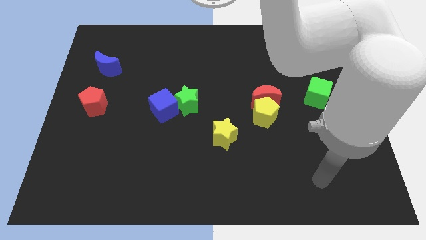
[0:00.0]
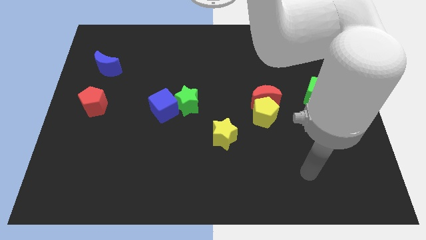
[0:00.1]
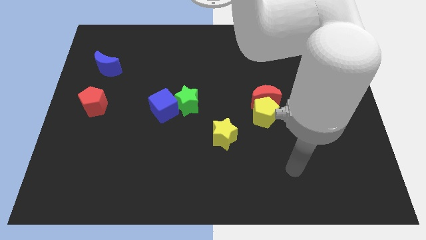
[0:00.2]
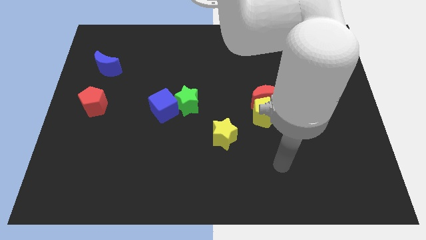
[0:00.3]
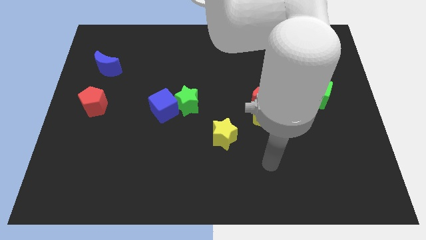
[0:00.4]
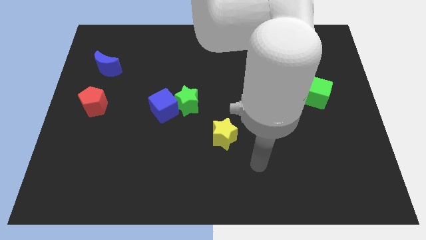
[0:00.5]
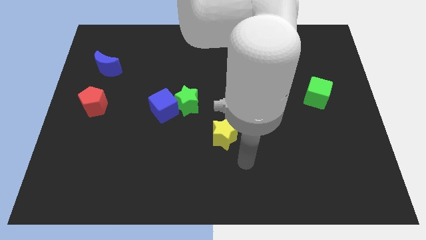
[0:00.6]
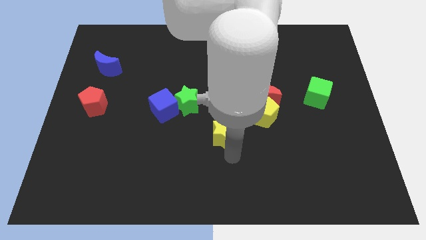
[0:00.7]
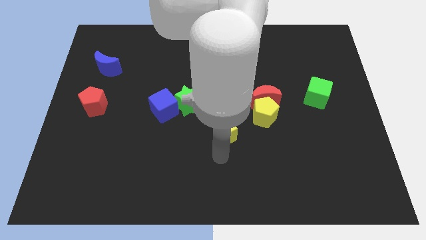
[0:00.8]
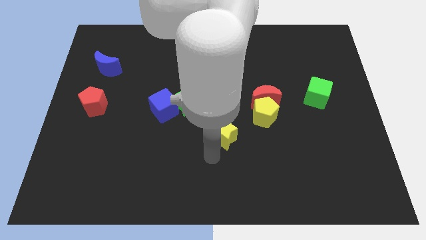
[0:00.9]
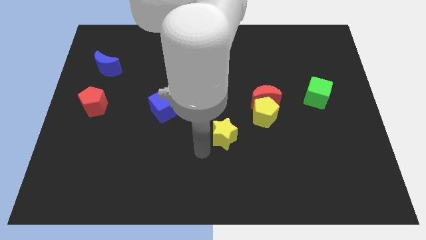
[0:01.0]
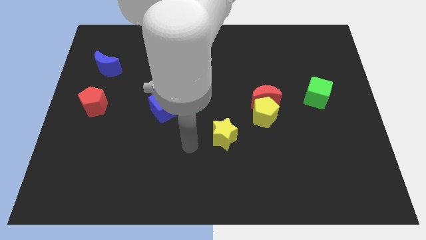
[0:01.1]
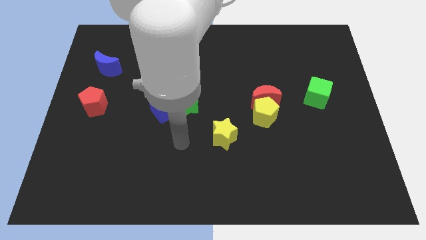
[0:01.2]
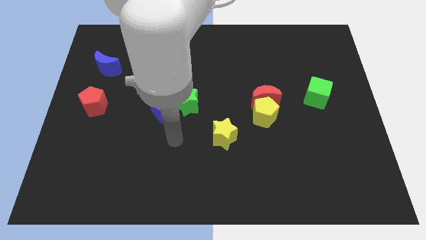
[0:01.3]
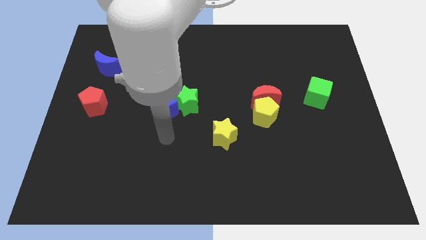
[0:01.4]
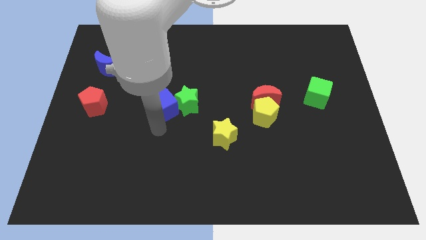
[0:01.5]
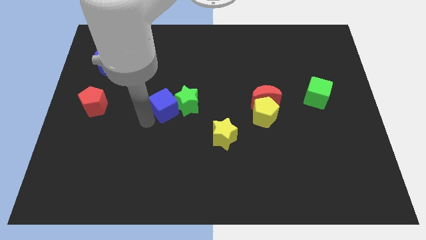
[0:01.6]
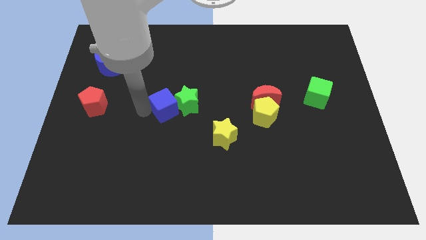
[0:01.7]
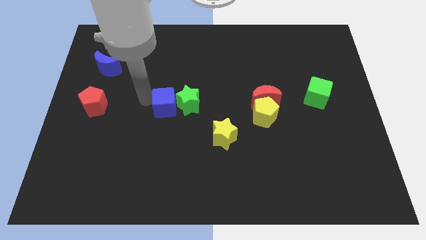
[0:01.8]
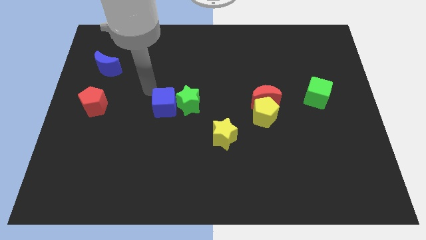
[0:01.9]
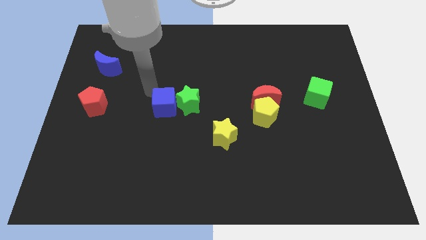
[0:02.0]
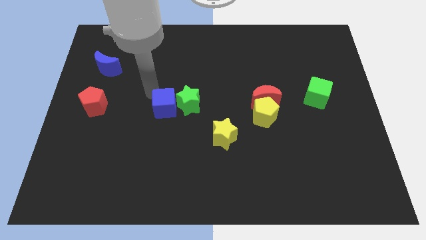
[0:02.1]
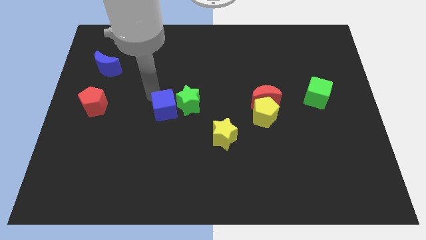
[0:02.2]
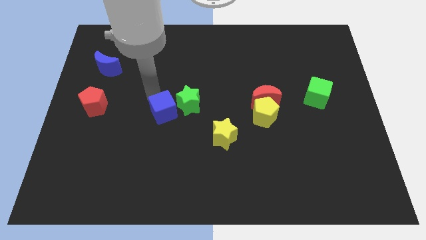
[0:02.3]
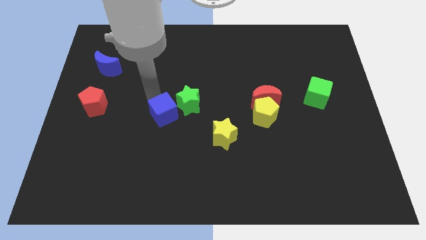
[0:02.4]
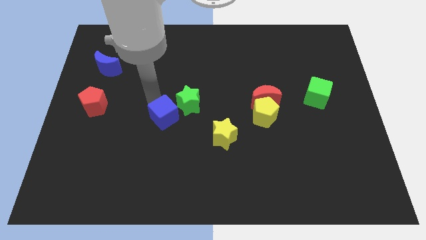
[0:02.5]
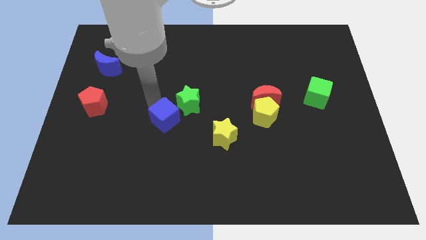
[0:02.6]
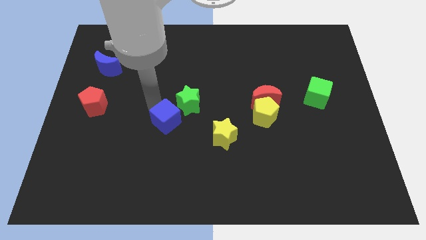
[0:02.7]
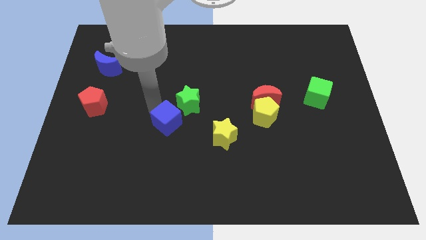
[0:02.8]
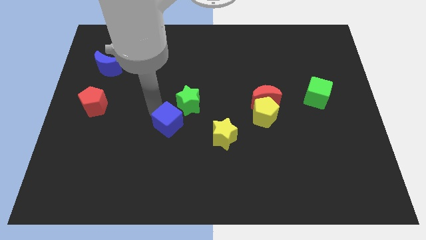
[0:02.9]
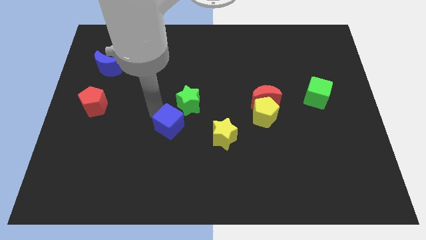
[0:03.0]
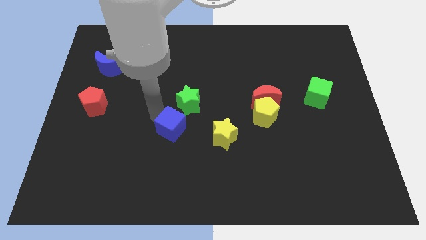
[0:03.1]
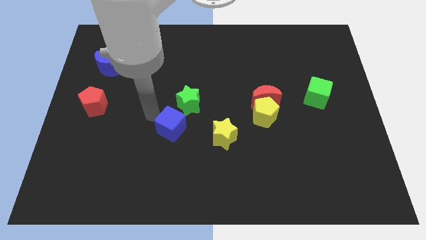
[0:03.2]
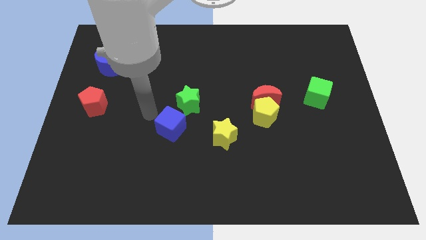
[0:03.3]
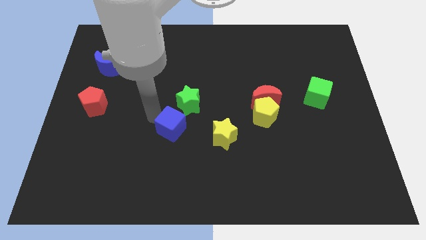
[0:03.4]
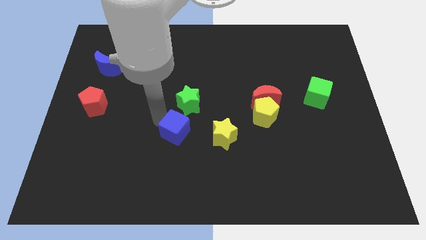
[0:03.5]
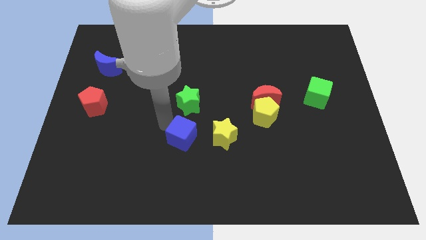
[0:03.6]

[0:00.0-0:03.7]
slide the blue cube downwards and right diagonally a little bit

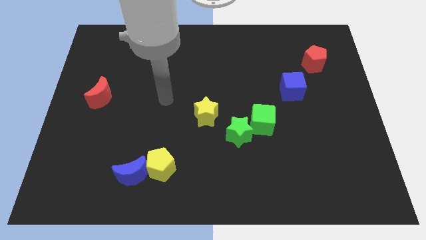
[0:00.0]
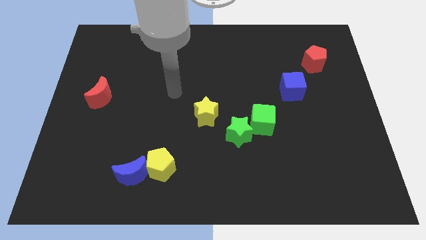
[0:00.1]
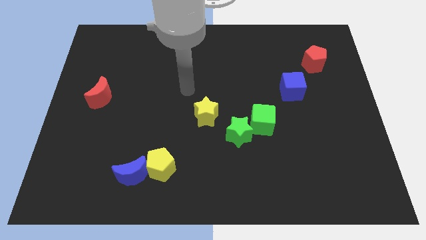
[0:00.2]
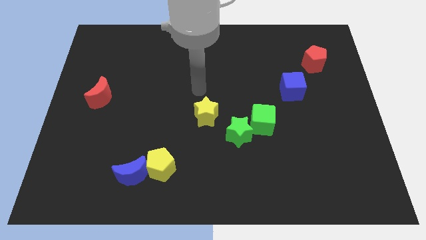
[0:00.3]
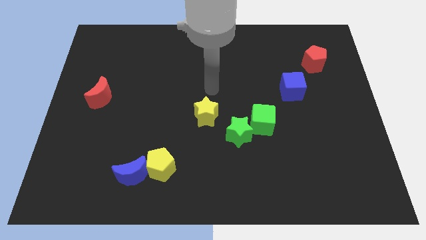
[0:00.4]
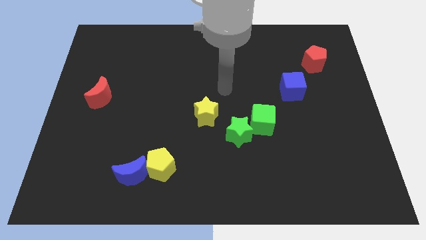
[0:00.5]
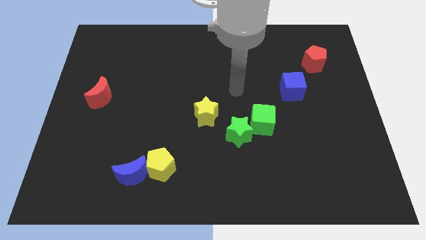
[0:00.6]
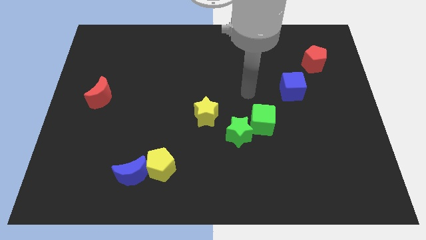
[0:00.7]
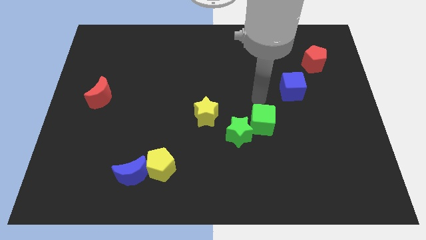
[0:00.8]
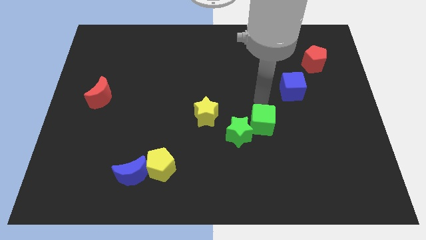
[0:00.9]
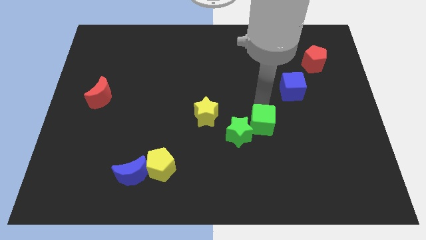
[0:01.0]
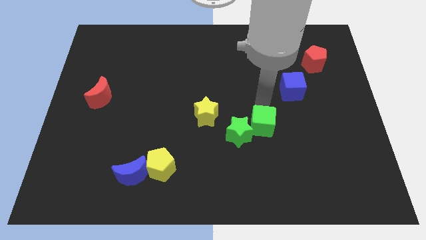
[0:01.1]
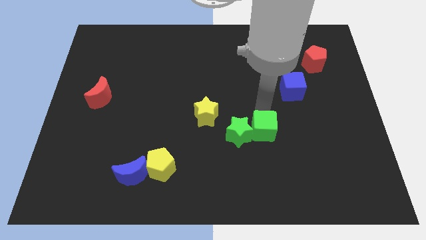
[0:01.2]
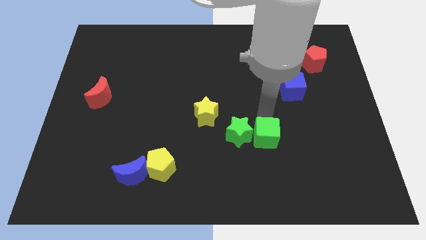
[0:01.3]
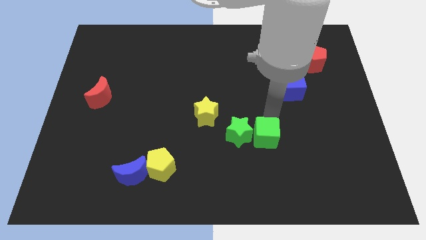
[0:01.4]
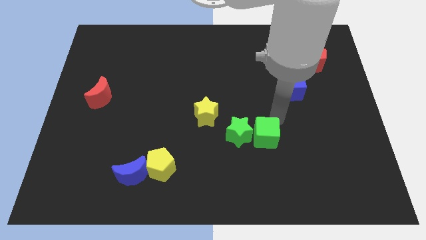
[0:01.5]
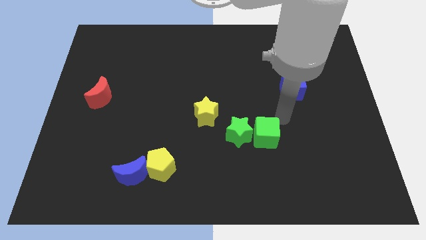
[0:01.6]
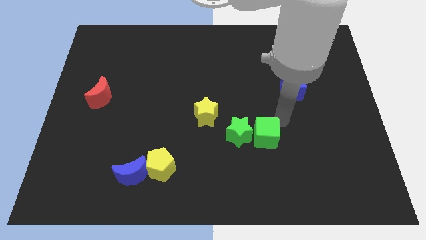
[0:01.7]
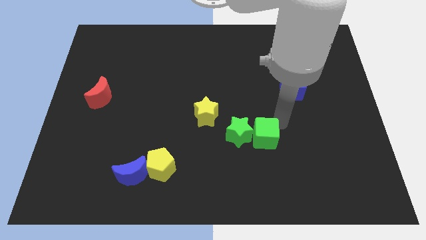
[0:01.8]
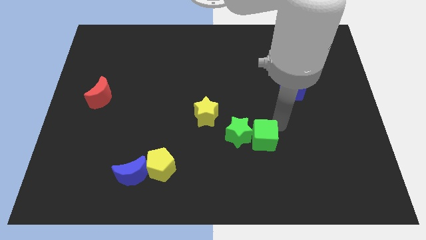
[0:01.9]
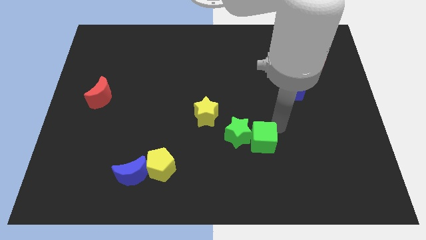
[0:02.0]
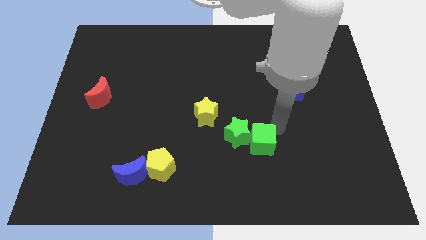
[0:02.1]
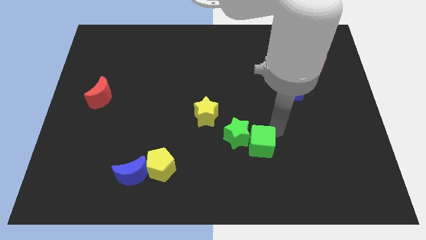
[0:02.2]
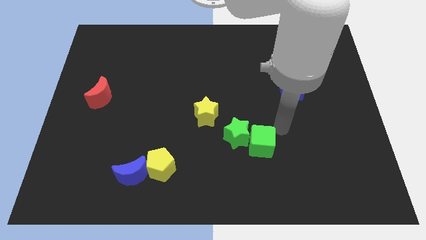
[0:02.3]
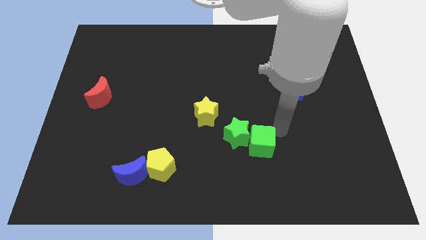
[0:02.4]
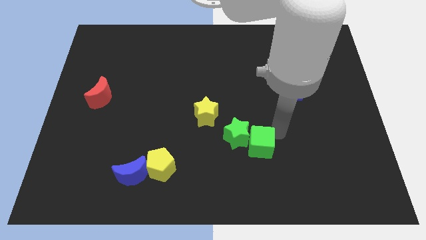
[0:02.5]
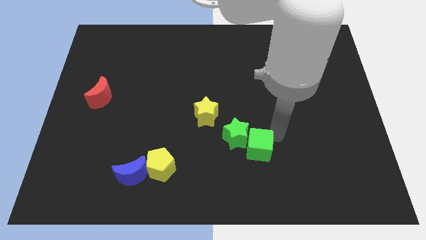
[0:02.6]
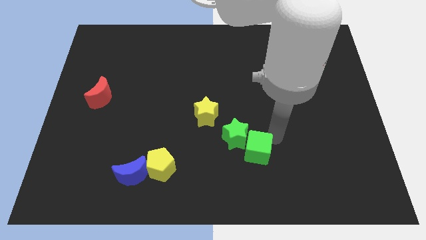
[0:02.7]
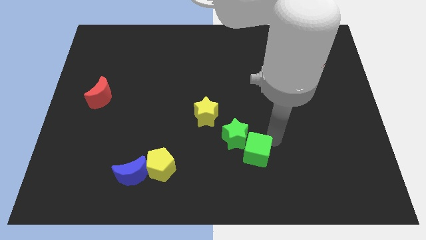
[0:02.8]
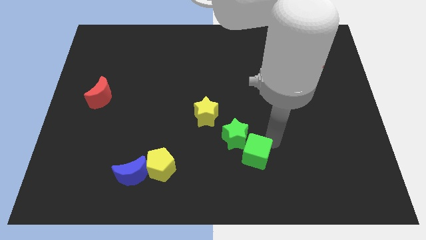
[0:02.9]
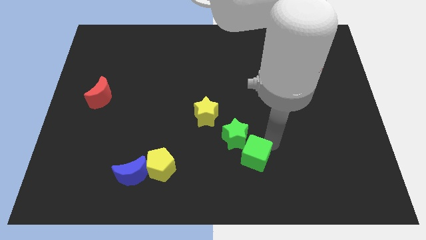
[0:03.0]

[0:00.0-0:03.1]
push the green cube a little bit down and then left

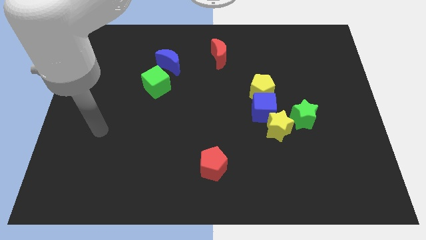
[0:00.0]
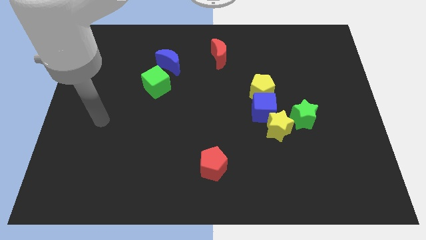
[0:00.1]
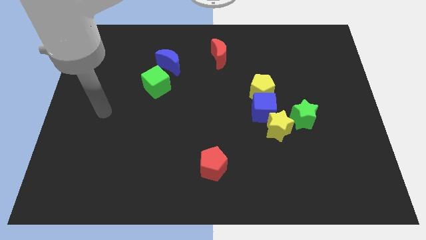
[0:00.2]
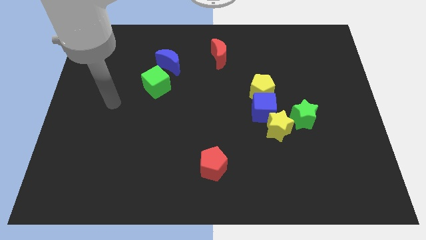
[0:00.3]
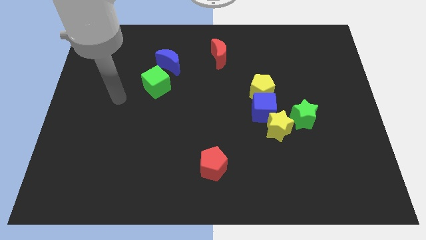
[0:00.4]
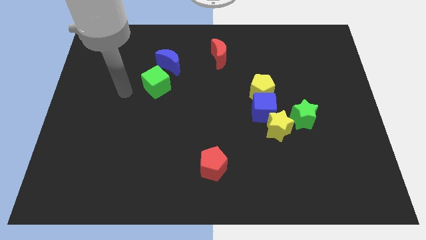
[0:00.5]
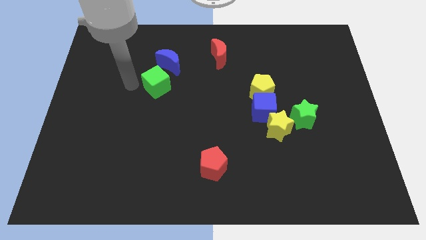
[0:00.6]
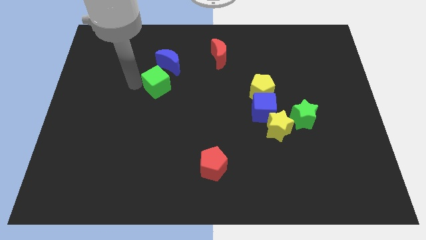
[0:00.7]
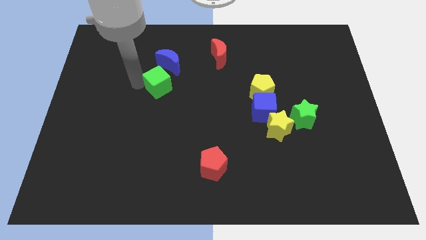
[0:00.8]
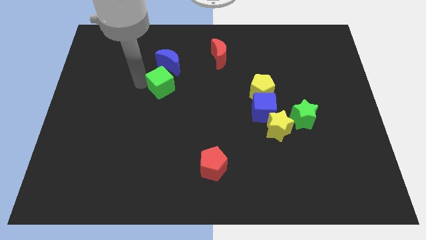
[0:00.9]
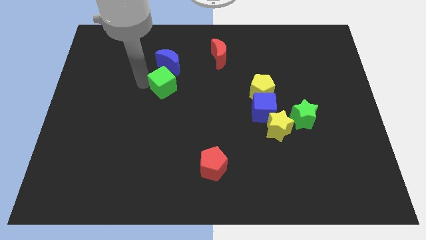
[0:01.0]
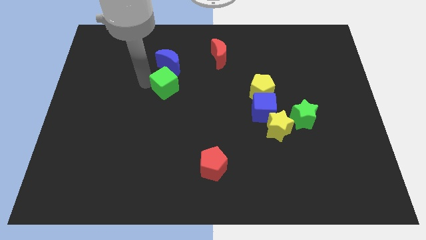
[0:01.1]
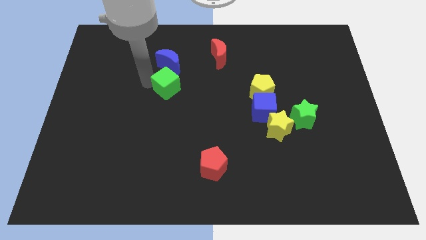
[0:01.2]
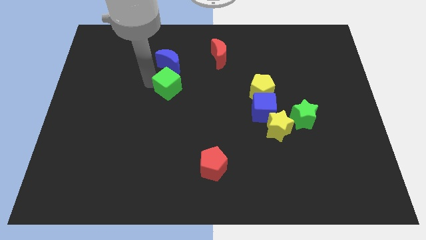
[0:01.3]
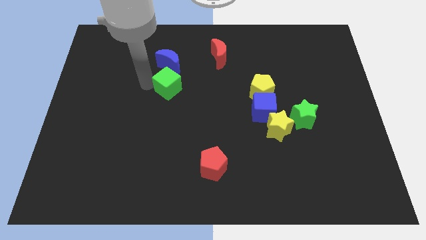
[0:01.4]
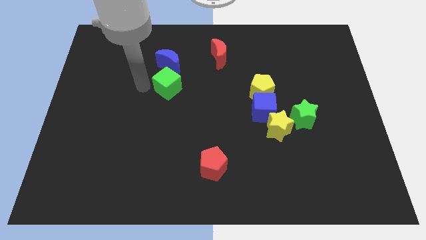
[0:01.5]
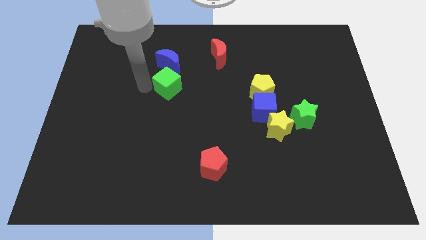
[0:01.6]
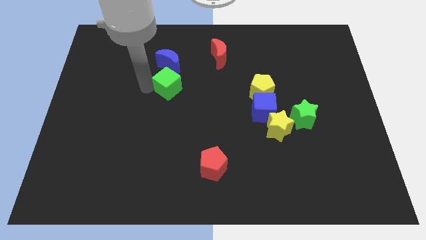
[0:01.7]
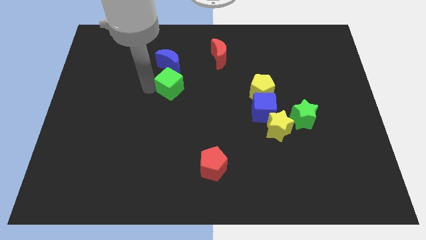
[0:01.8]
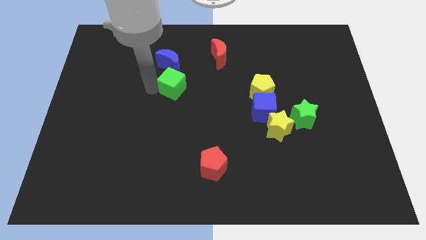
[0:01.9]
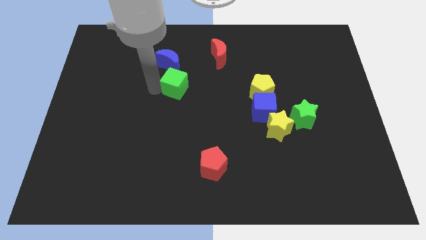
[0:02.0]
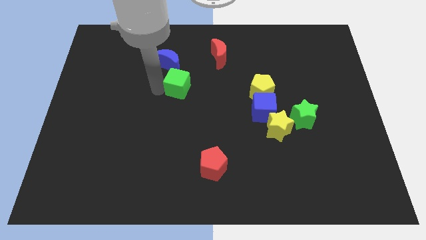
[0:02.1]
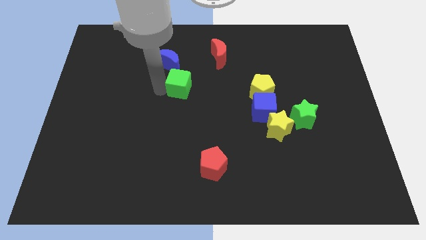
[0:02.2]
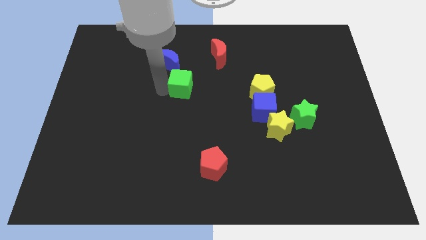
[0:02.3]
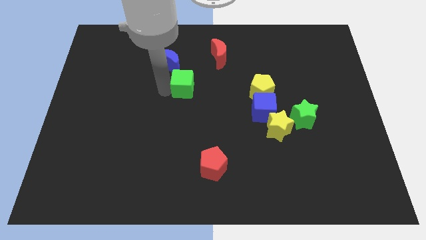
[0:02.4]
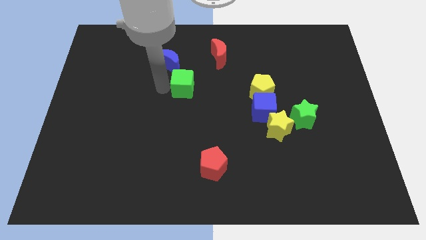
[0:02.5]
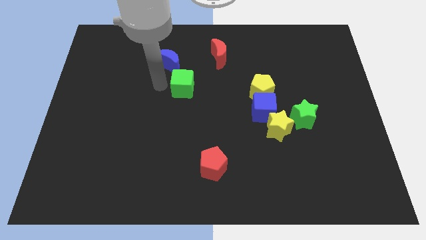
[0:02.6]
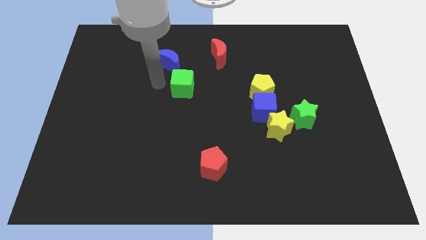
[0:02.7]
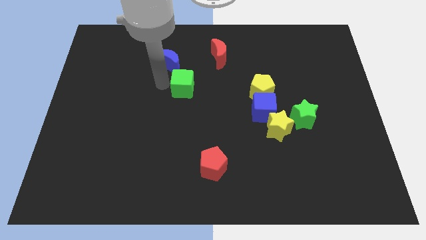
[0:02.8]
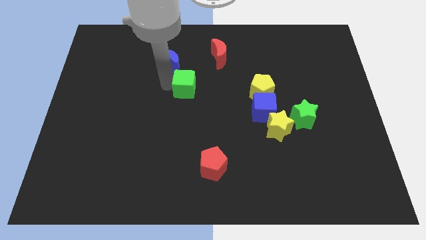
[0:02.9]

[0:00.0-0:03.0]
slide the green cube a bit to the right
